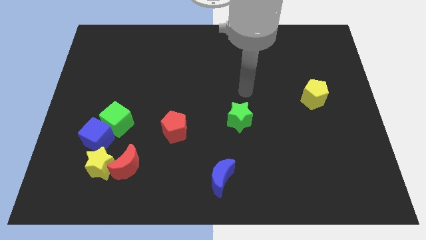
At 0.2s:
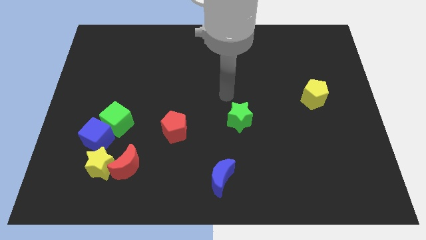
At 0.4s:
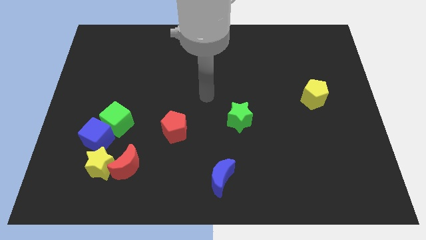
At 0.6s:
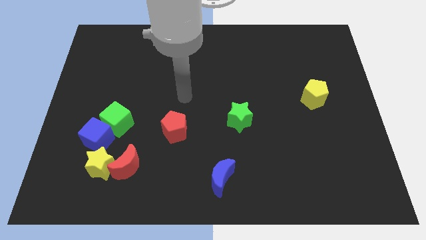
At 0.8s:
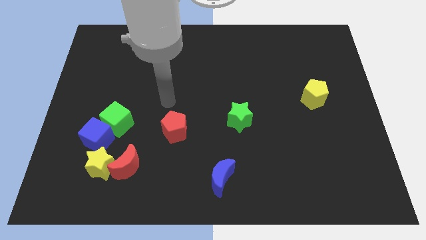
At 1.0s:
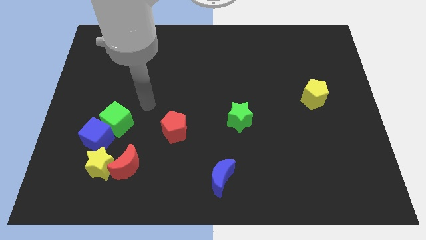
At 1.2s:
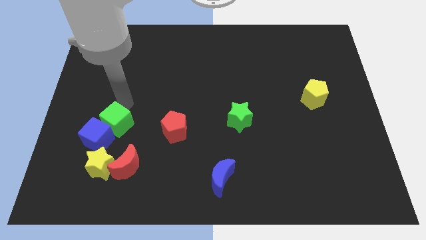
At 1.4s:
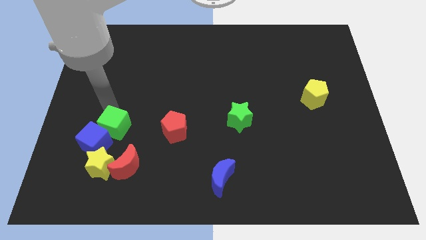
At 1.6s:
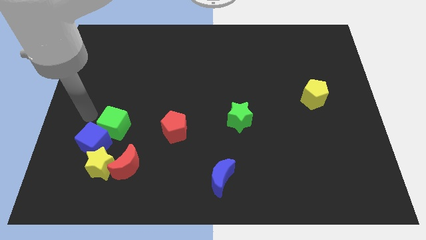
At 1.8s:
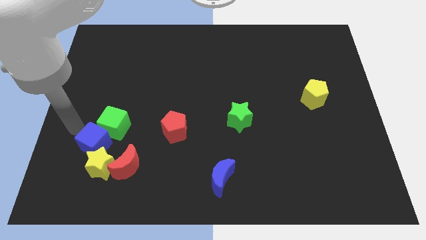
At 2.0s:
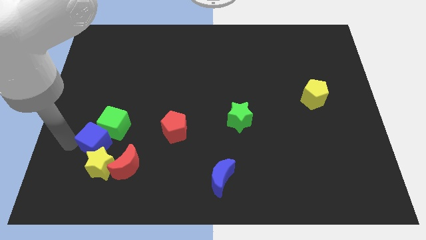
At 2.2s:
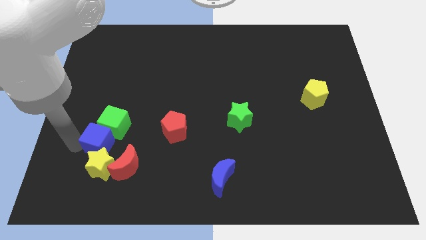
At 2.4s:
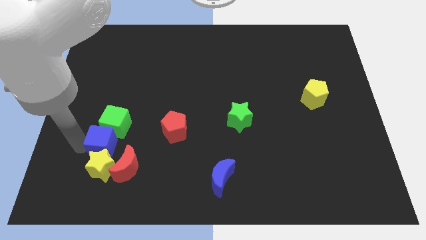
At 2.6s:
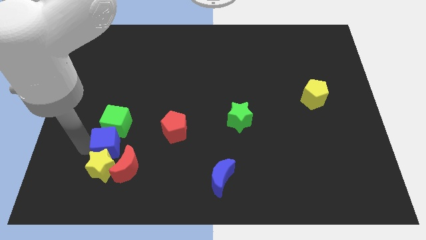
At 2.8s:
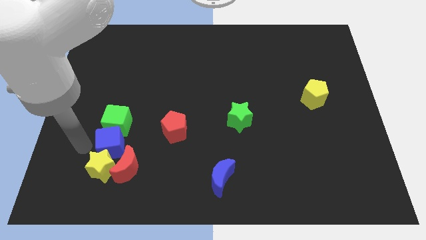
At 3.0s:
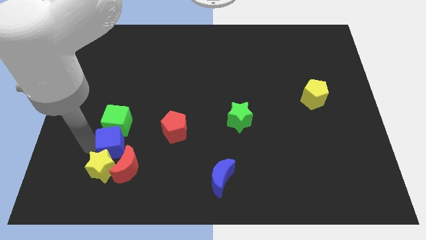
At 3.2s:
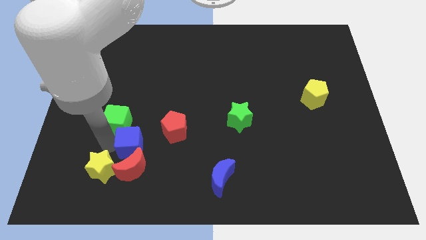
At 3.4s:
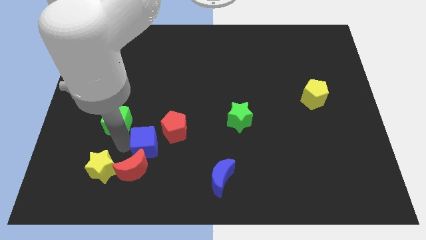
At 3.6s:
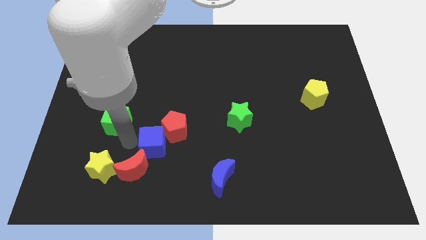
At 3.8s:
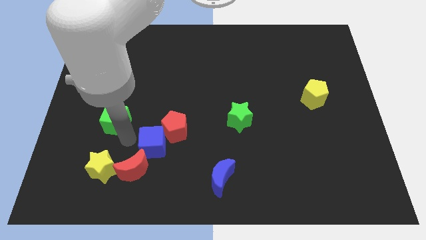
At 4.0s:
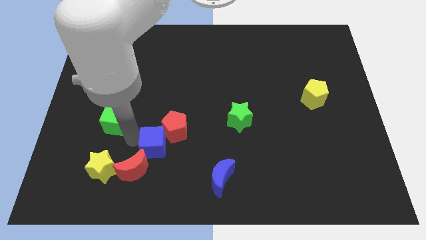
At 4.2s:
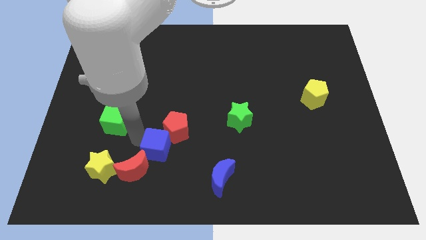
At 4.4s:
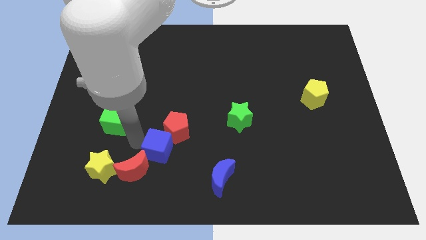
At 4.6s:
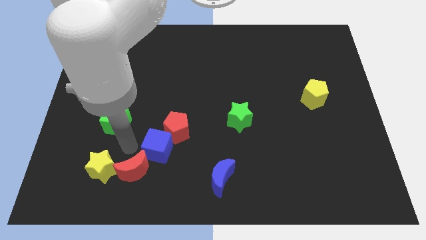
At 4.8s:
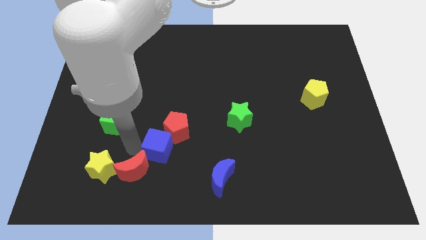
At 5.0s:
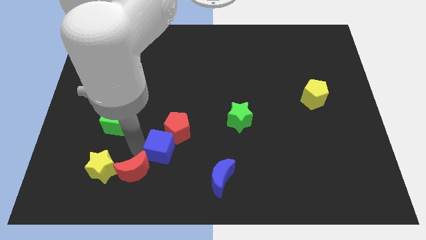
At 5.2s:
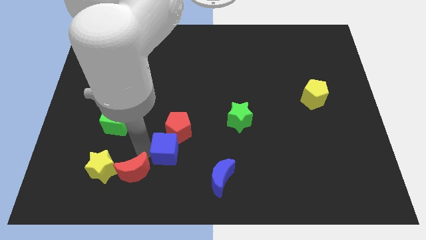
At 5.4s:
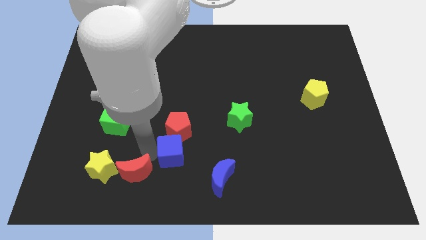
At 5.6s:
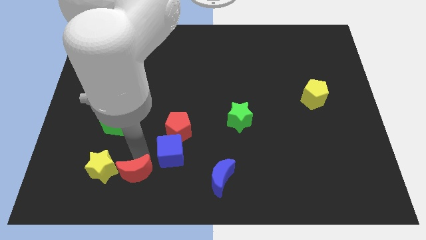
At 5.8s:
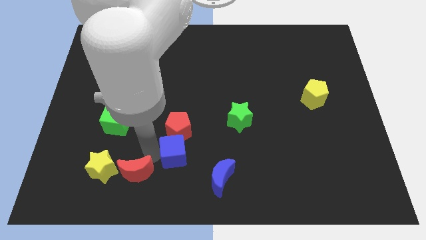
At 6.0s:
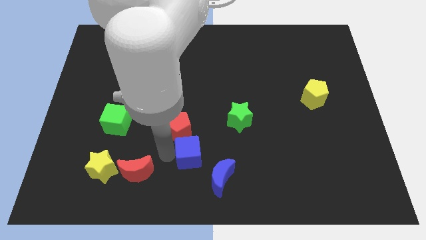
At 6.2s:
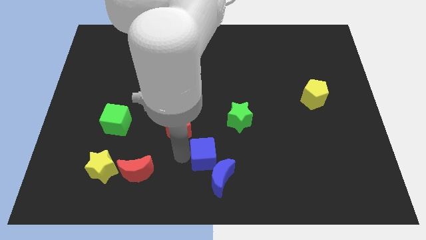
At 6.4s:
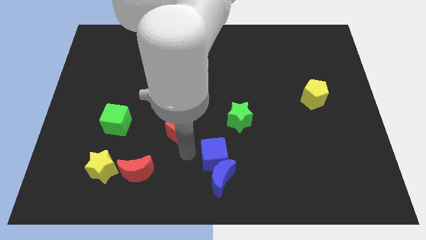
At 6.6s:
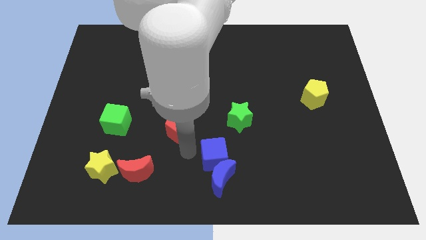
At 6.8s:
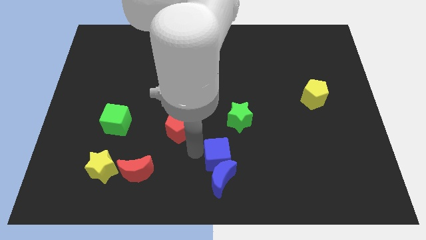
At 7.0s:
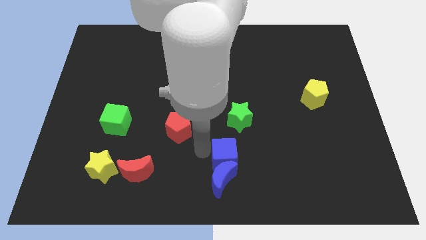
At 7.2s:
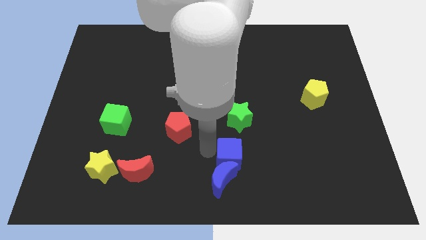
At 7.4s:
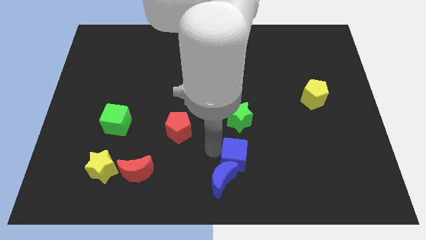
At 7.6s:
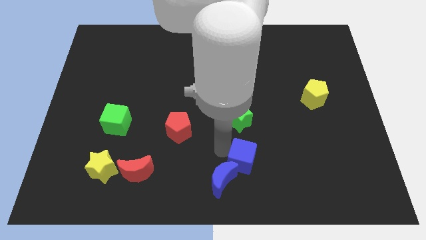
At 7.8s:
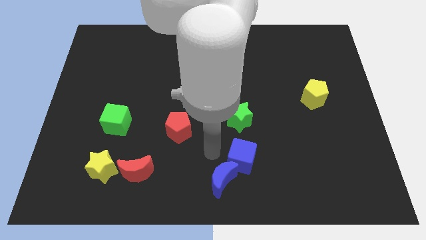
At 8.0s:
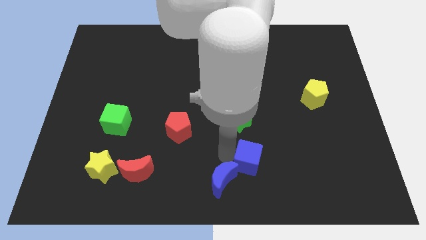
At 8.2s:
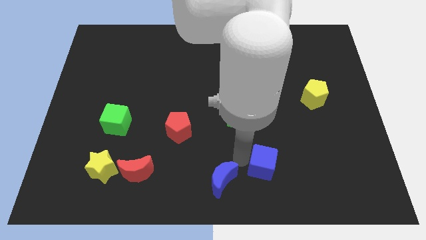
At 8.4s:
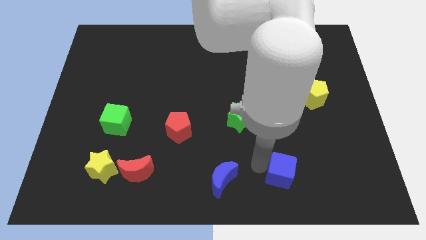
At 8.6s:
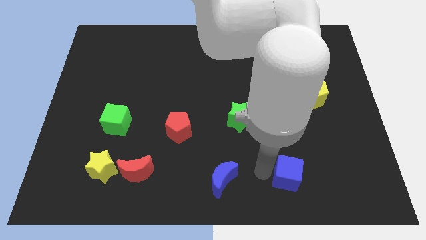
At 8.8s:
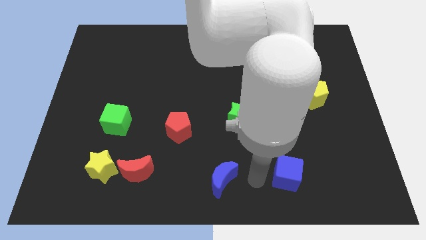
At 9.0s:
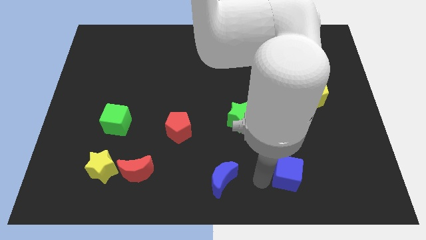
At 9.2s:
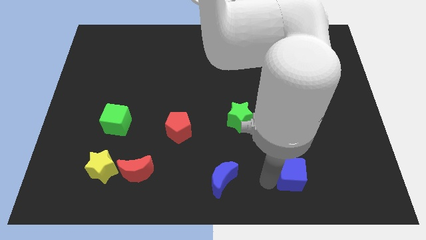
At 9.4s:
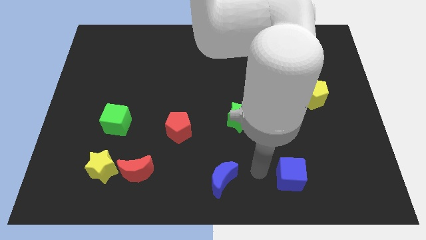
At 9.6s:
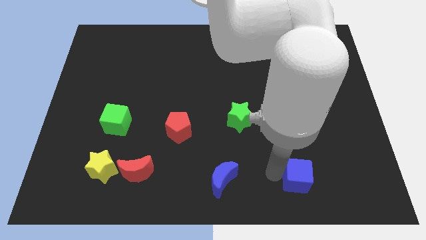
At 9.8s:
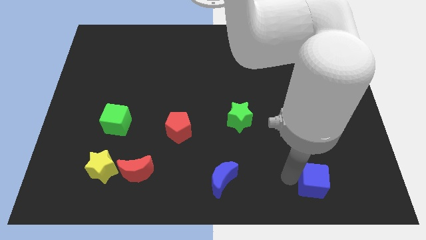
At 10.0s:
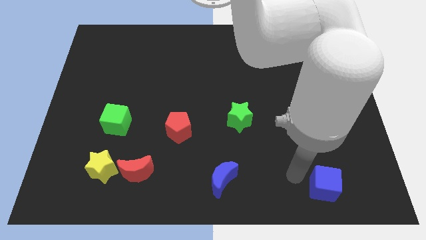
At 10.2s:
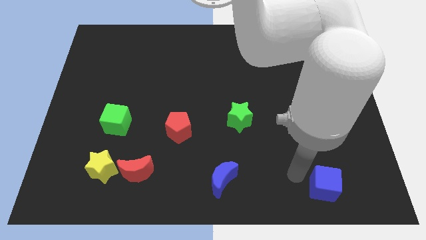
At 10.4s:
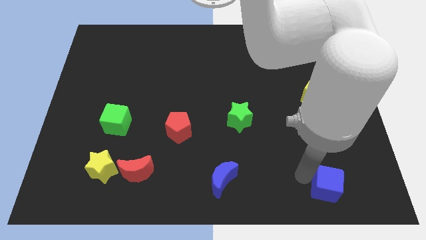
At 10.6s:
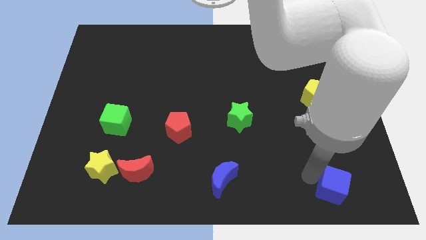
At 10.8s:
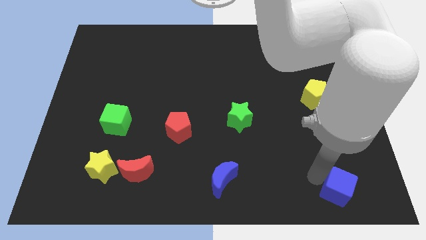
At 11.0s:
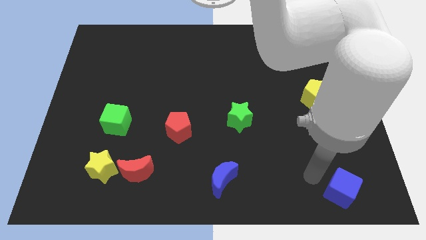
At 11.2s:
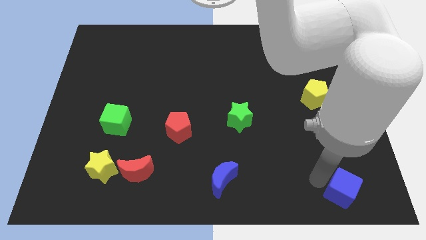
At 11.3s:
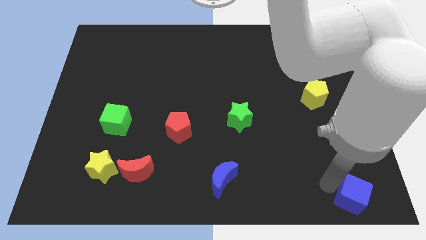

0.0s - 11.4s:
put the blue cube to the bottom right

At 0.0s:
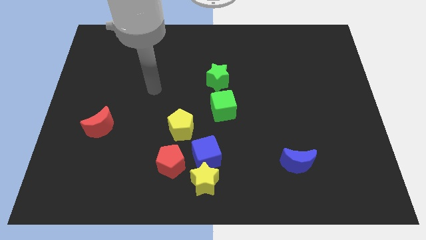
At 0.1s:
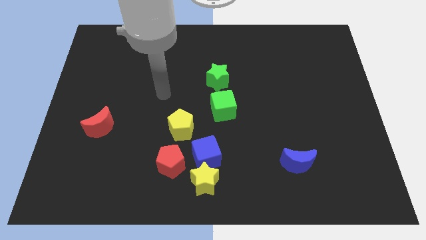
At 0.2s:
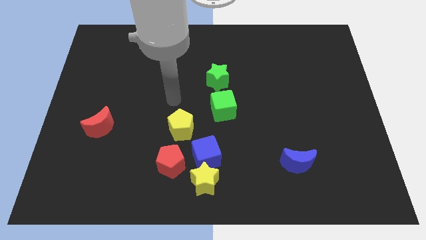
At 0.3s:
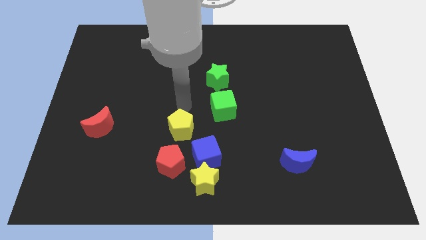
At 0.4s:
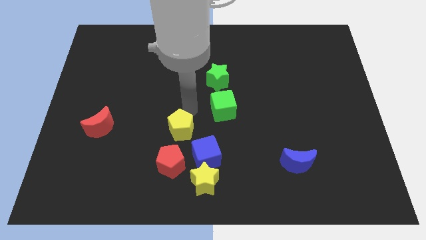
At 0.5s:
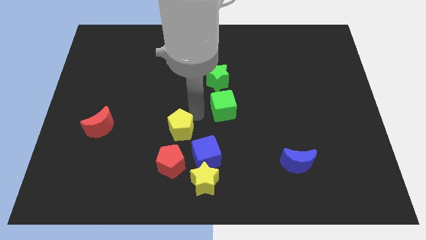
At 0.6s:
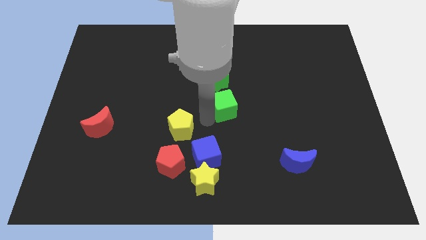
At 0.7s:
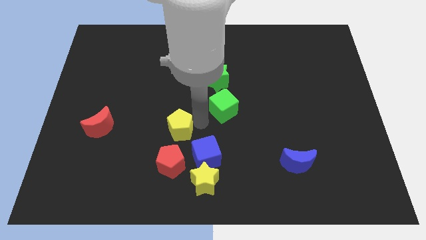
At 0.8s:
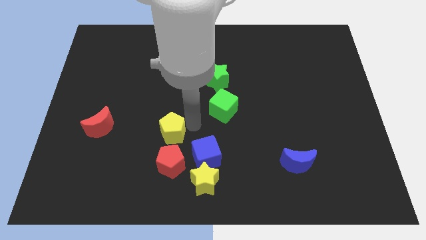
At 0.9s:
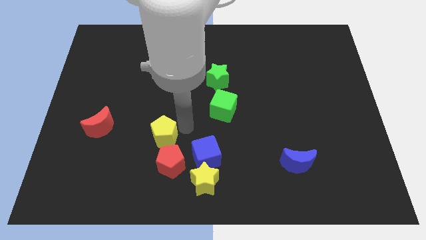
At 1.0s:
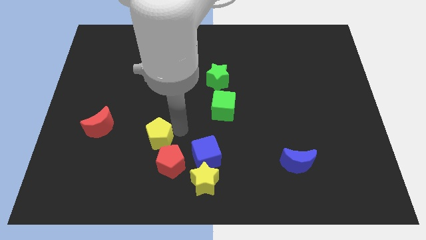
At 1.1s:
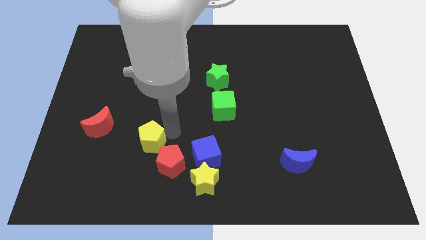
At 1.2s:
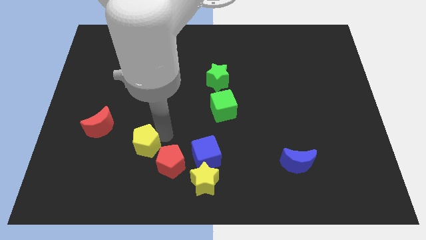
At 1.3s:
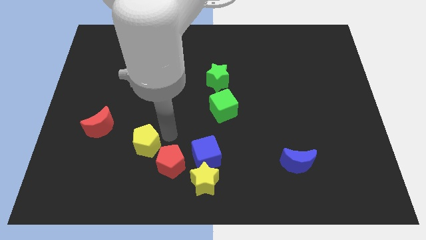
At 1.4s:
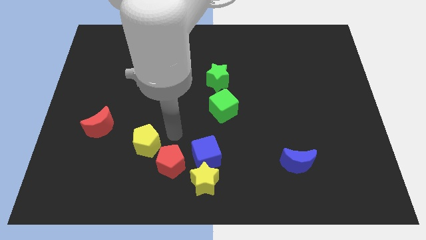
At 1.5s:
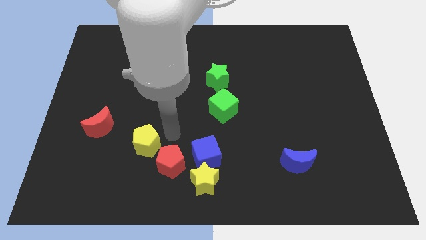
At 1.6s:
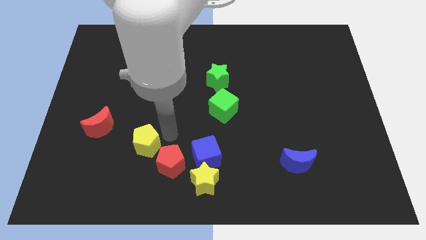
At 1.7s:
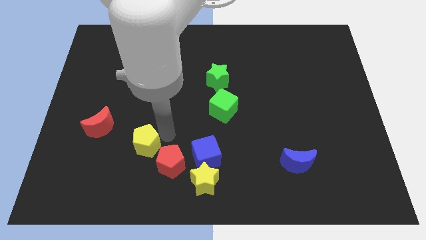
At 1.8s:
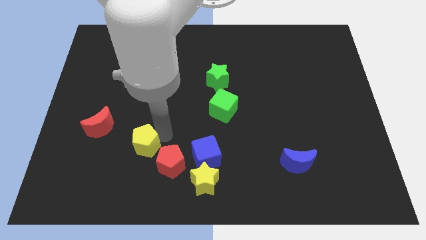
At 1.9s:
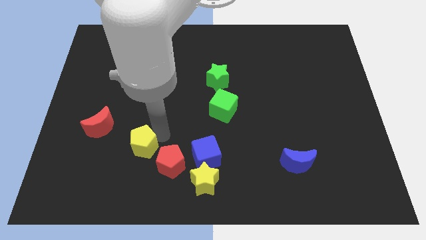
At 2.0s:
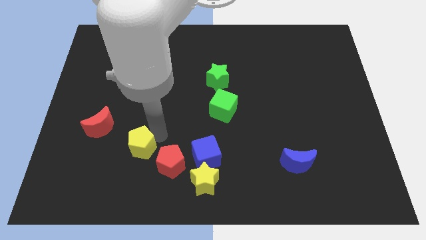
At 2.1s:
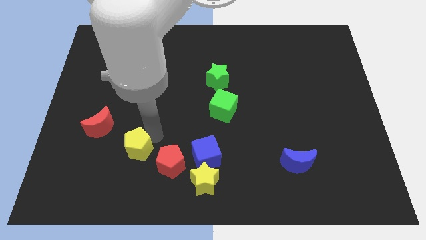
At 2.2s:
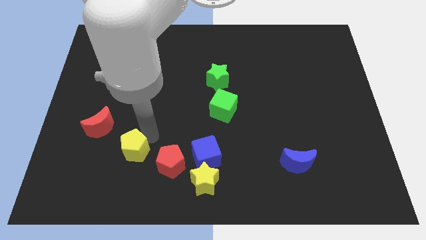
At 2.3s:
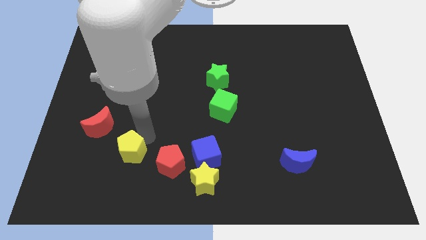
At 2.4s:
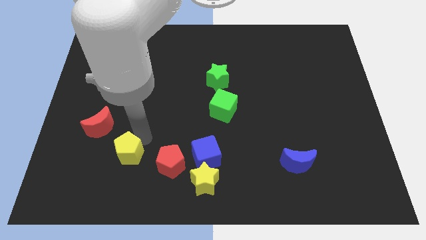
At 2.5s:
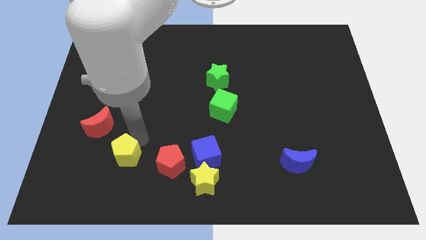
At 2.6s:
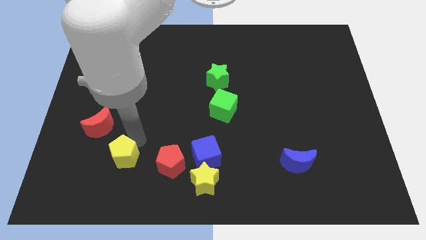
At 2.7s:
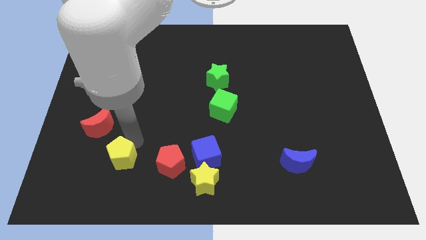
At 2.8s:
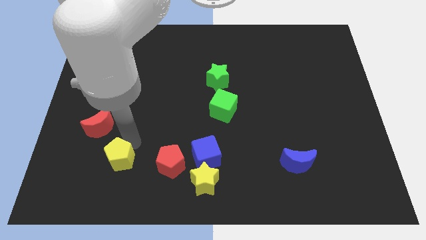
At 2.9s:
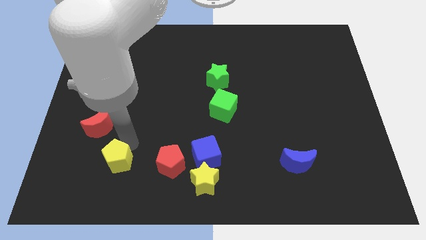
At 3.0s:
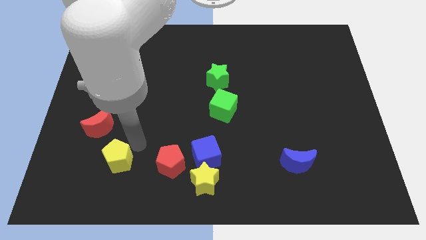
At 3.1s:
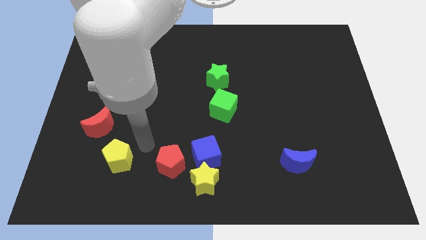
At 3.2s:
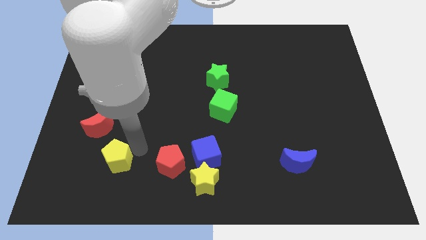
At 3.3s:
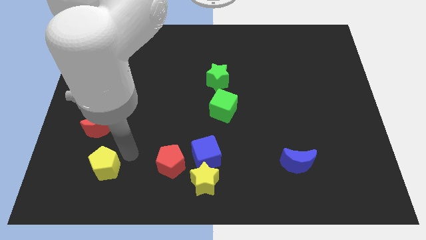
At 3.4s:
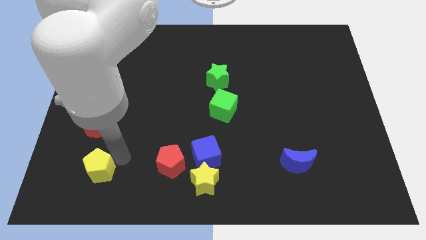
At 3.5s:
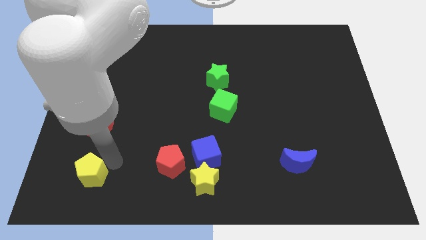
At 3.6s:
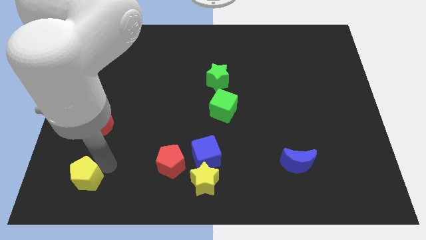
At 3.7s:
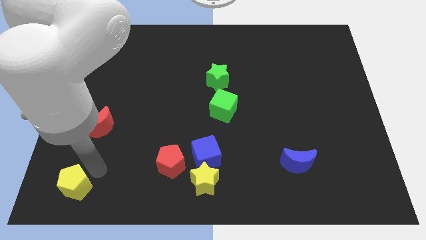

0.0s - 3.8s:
put the yellow pentagon to the bottom left of the board
